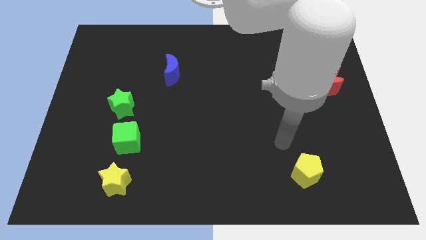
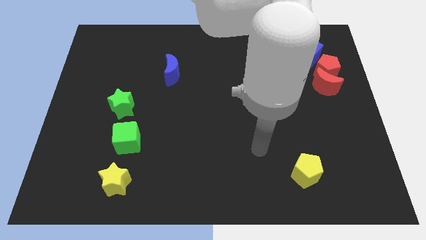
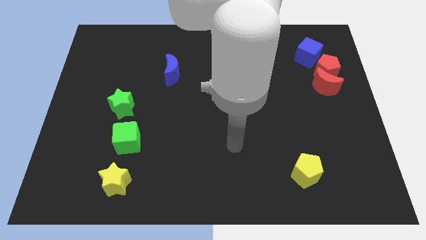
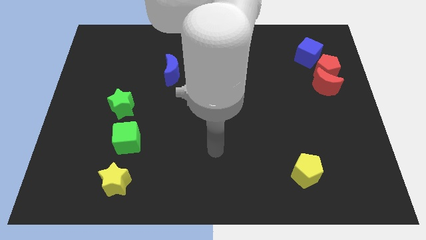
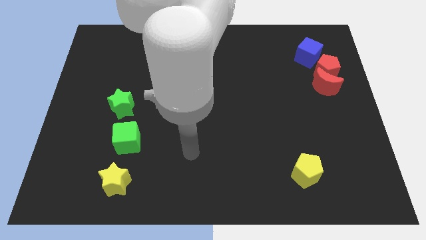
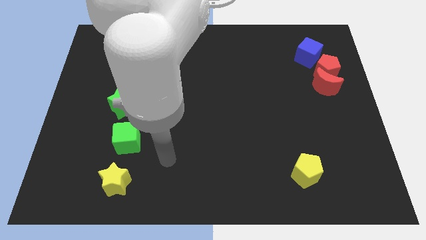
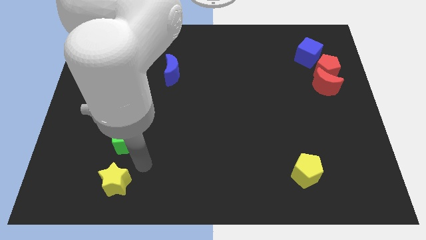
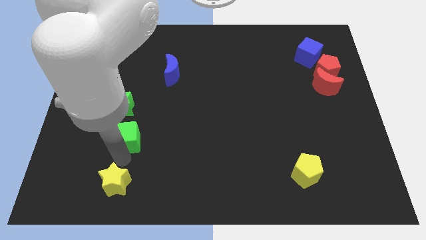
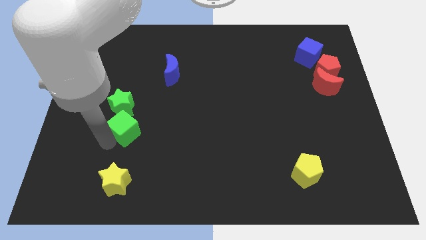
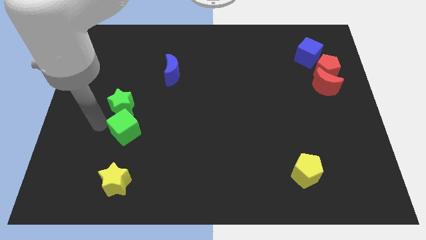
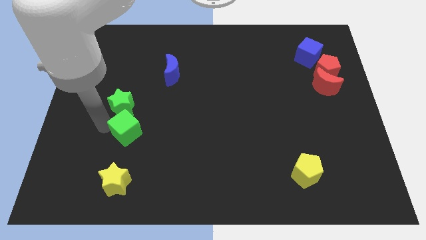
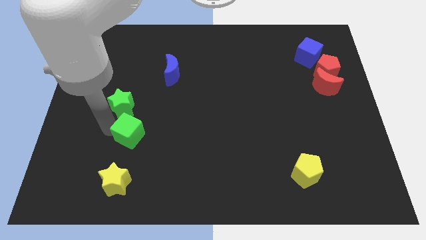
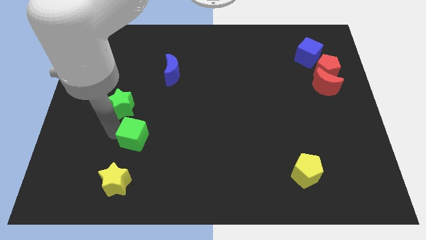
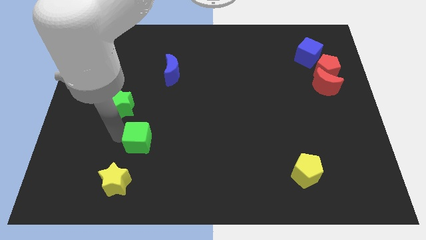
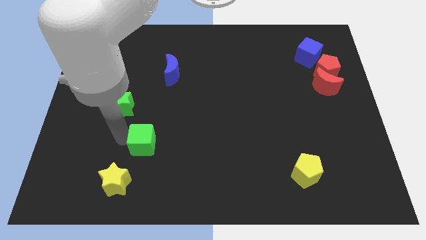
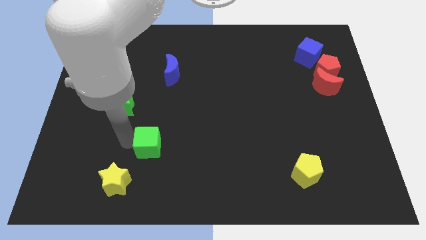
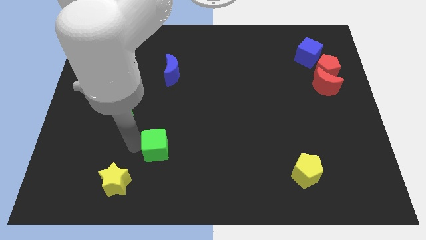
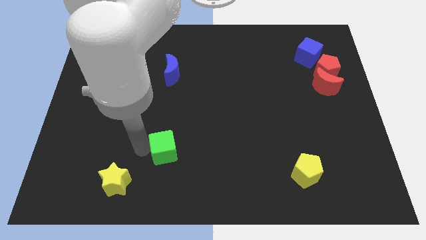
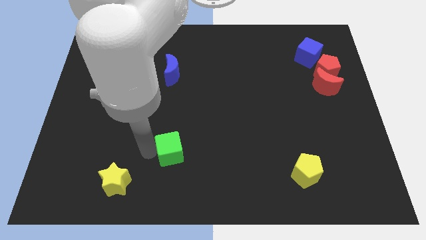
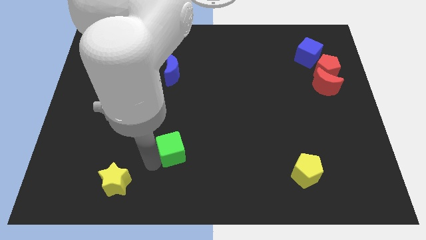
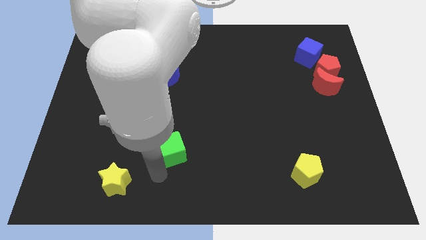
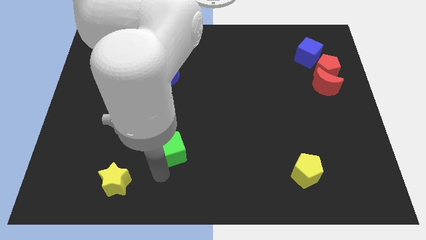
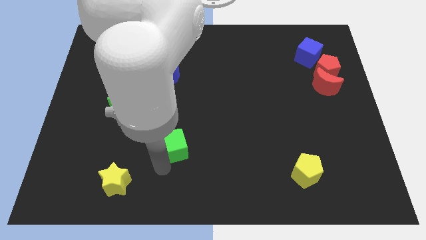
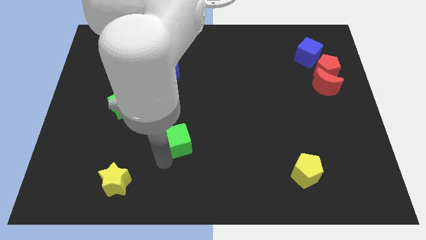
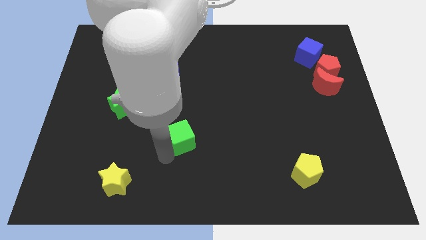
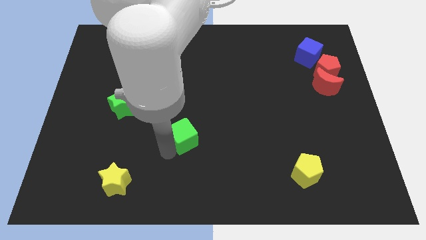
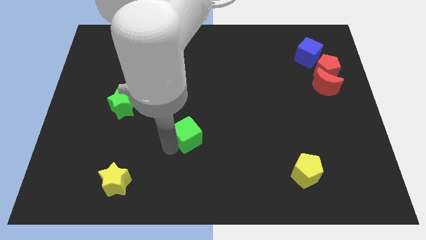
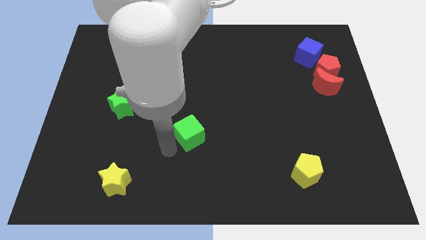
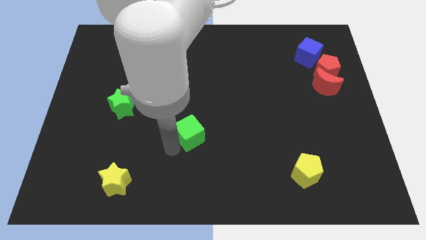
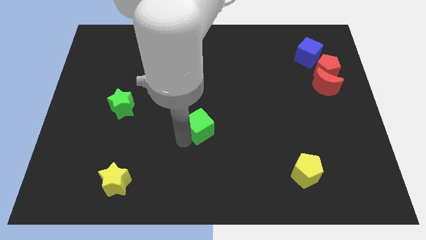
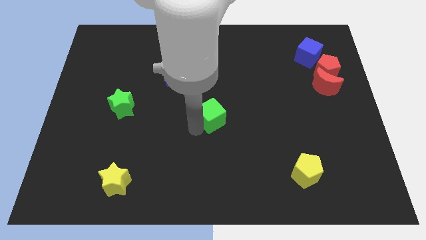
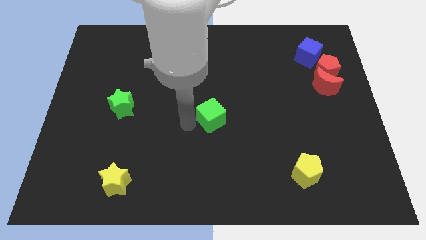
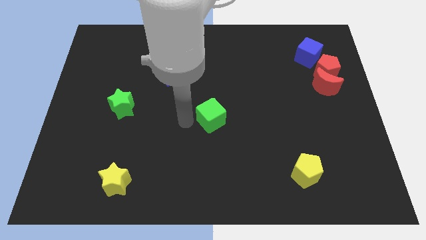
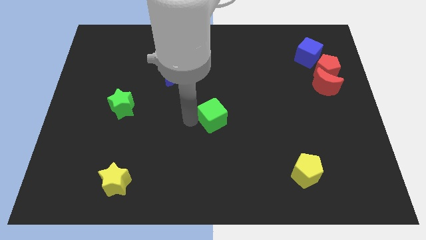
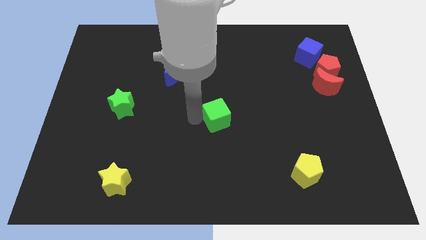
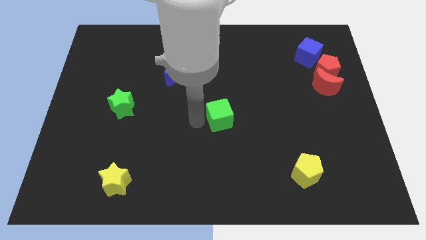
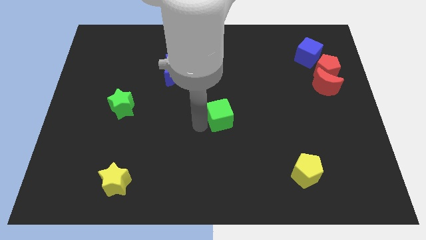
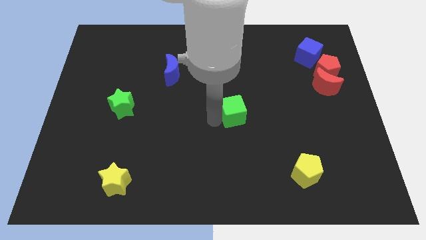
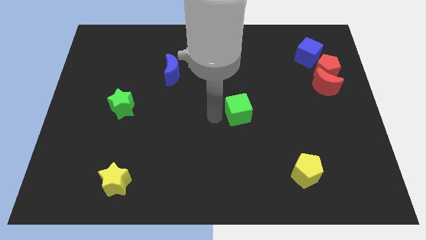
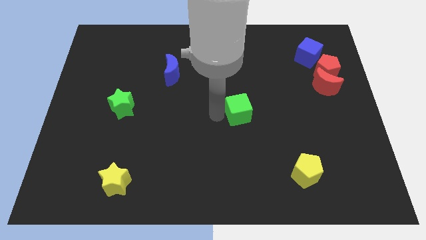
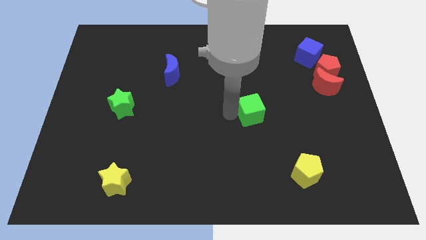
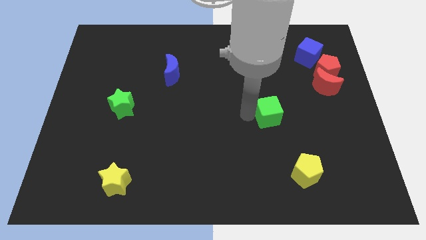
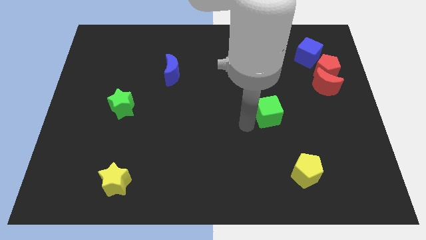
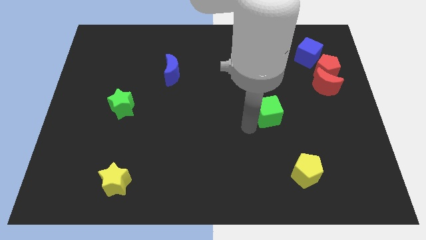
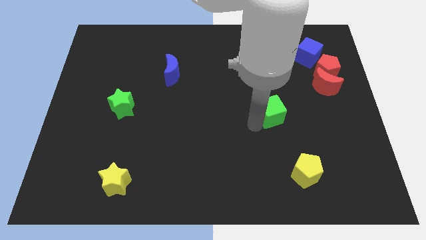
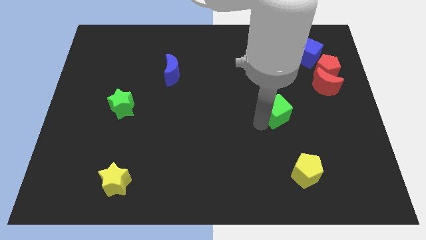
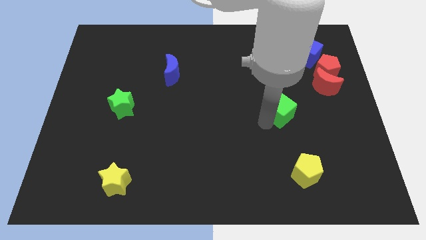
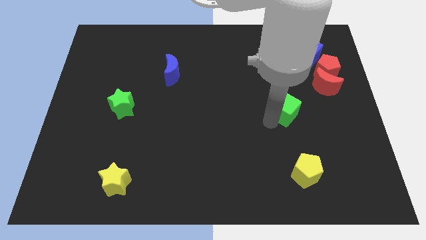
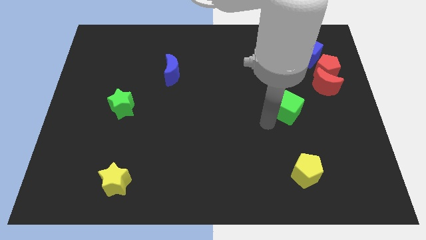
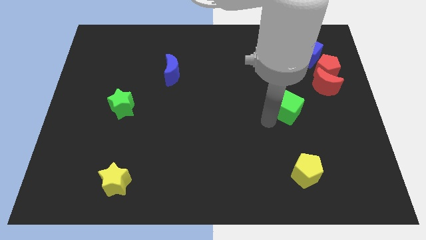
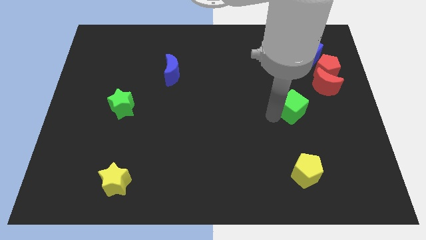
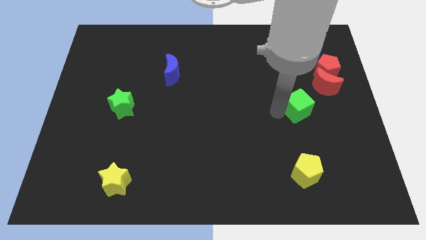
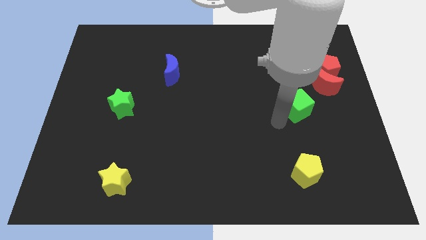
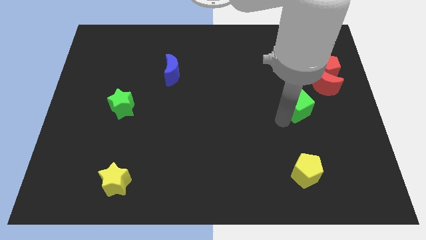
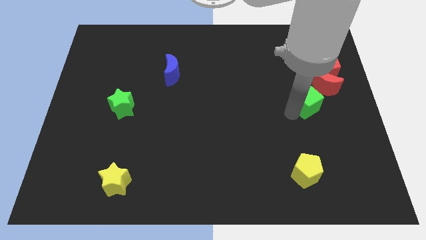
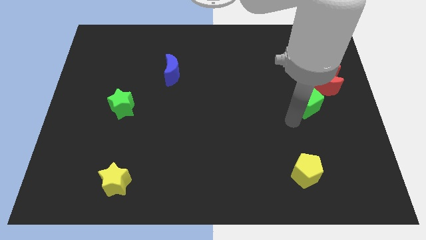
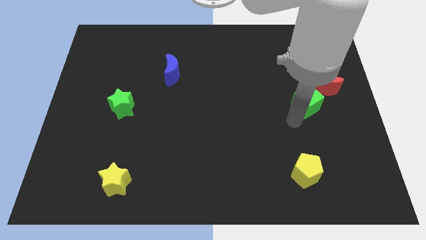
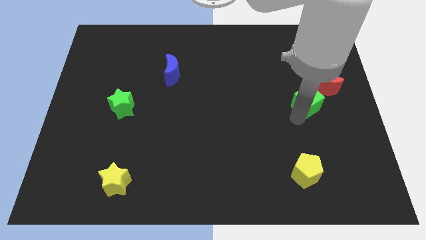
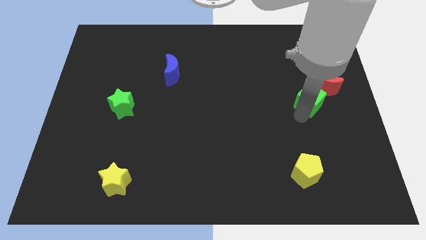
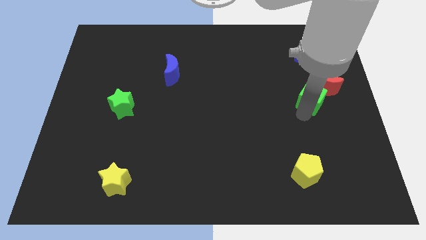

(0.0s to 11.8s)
push the green cube towards the red moon

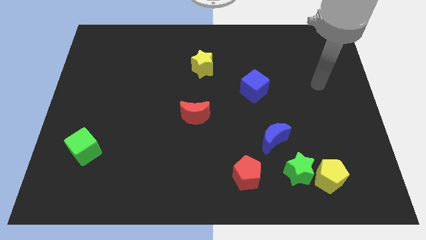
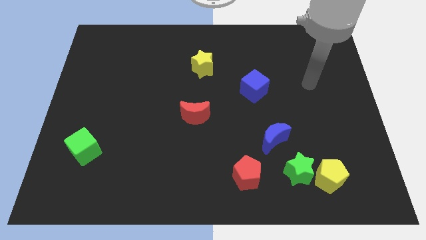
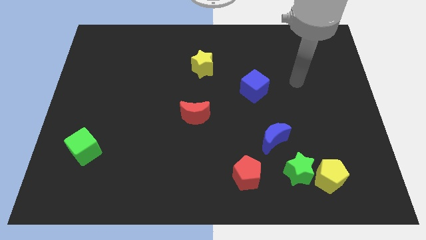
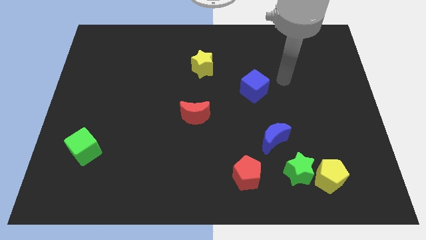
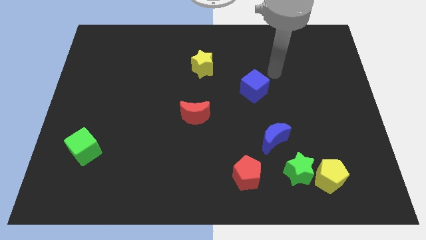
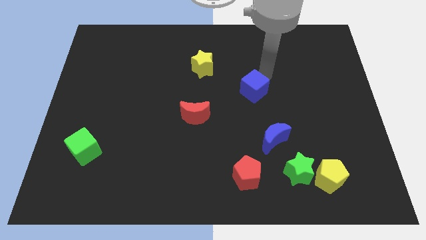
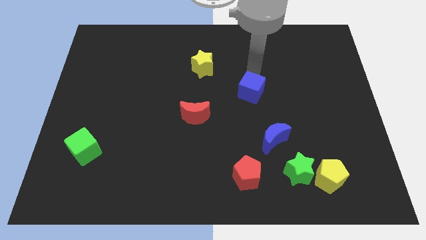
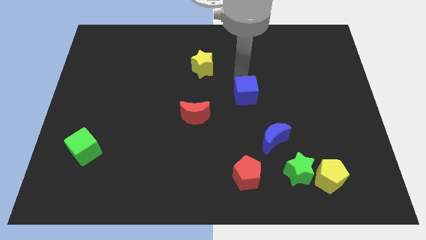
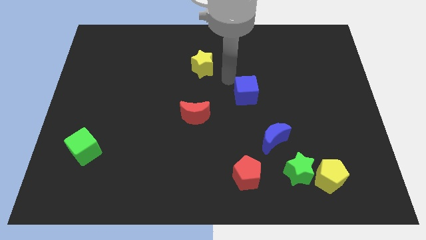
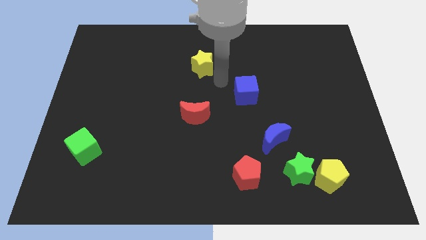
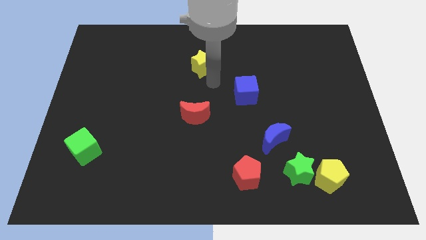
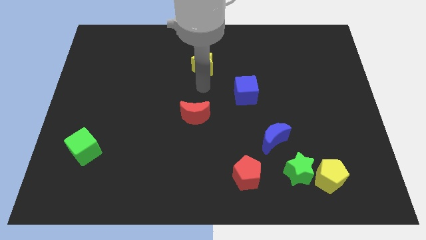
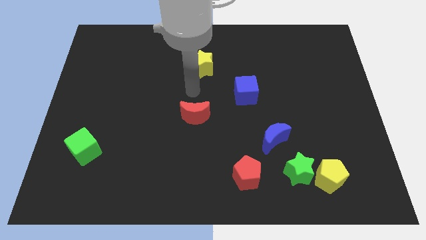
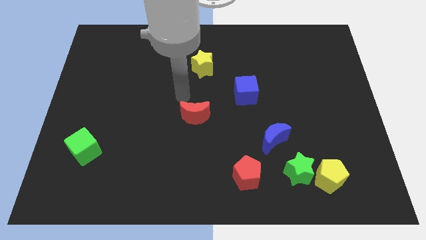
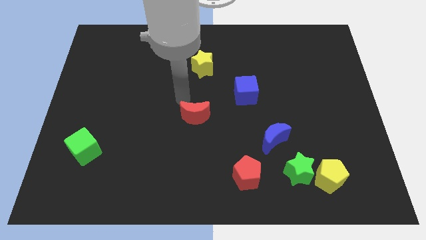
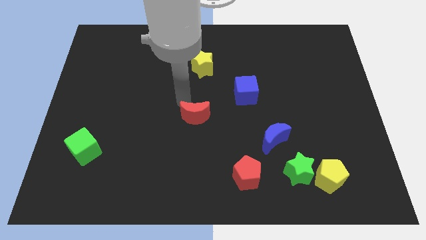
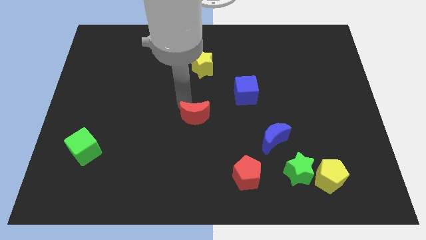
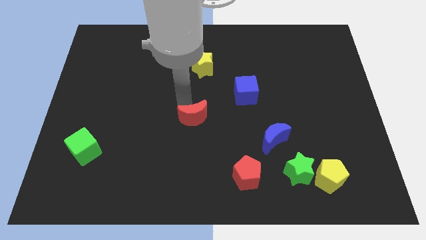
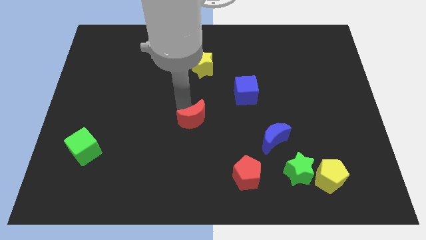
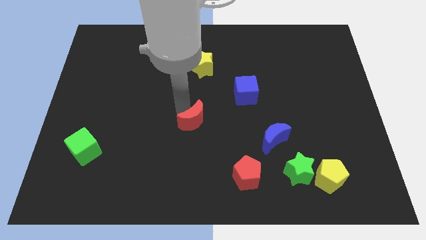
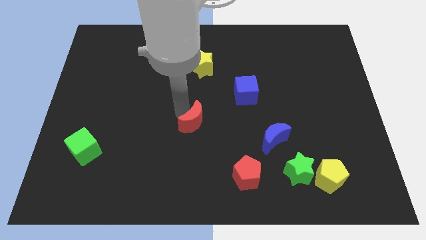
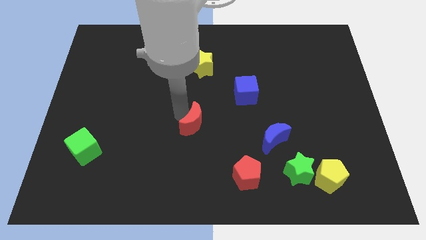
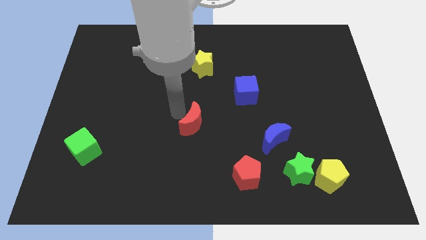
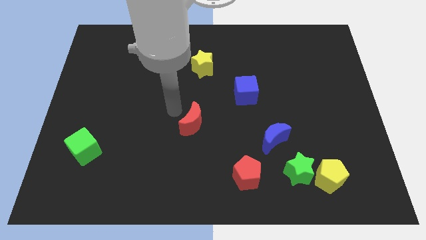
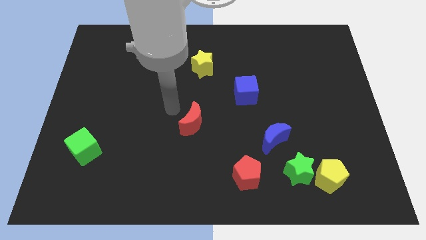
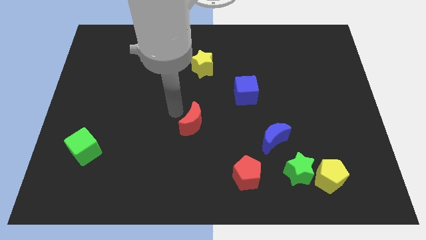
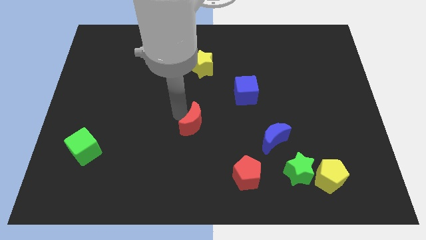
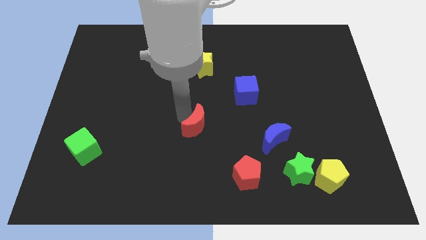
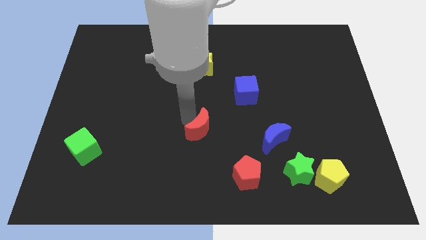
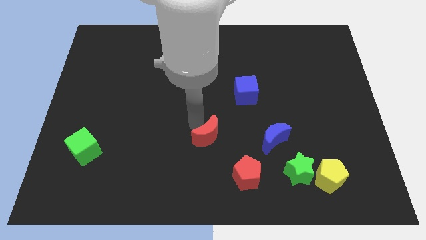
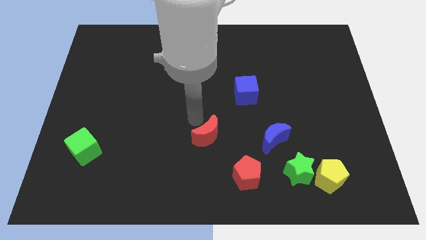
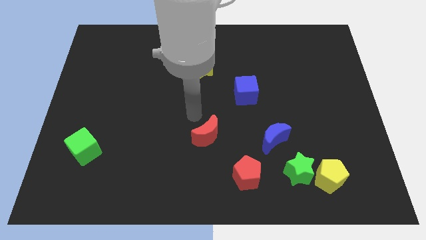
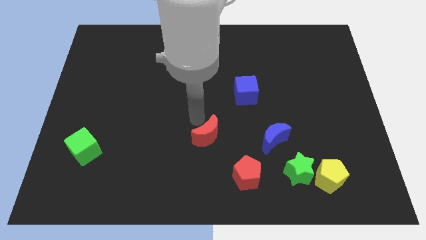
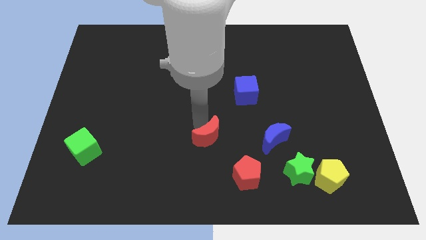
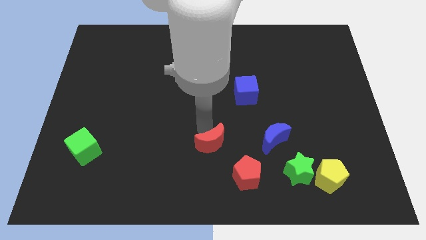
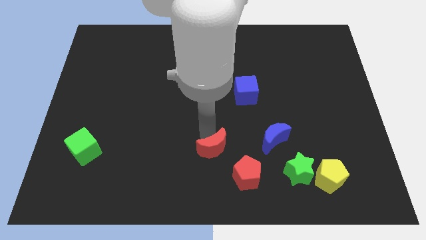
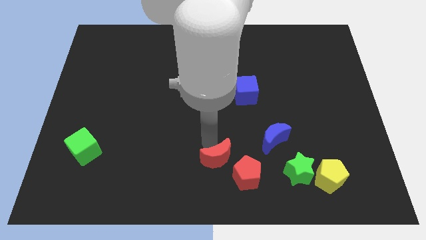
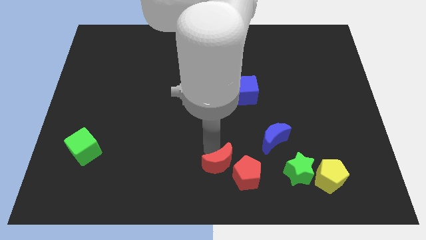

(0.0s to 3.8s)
put the red moon close to the red pentagon
